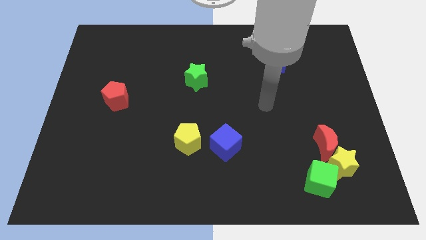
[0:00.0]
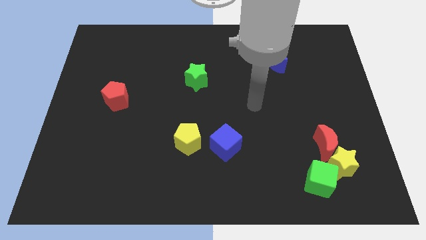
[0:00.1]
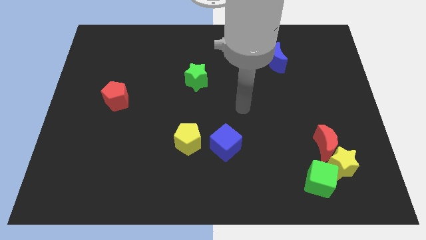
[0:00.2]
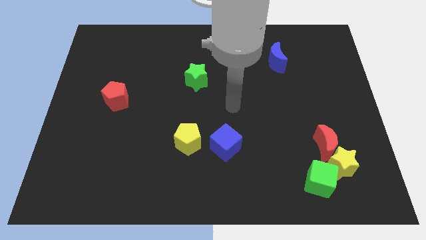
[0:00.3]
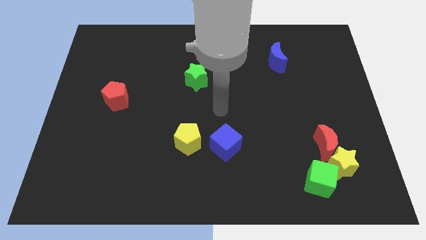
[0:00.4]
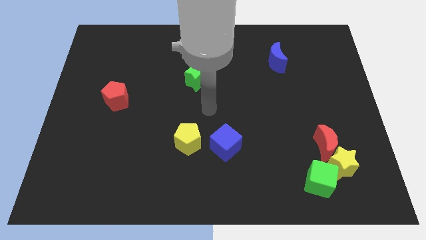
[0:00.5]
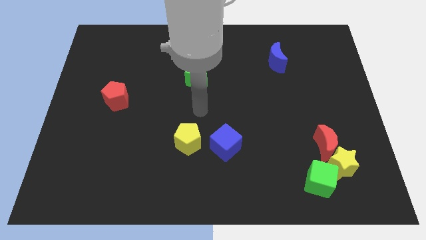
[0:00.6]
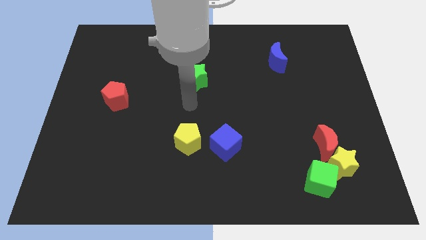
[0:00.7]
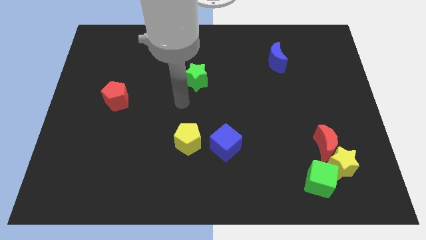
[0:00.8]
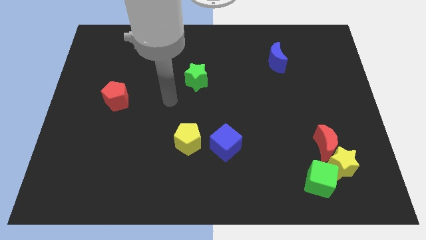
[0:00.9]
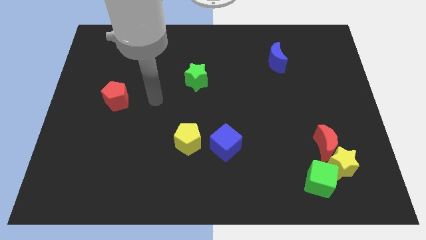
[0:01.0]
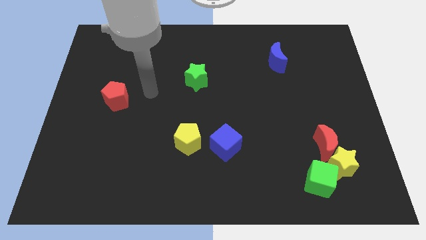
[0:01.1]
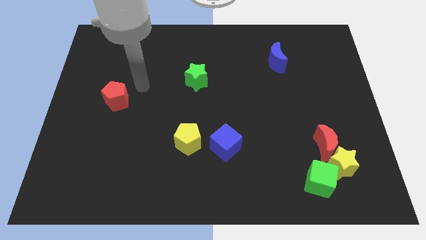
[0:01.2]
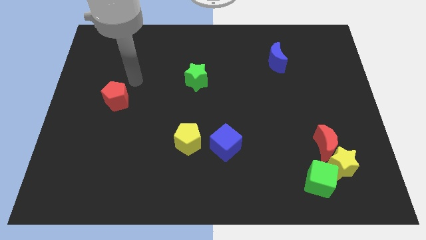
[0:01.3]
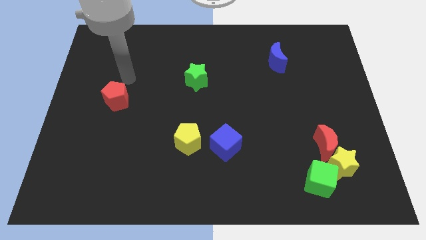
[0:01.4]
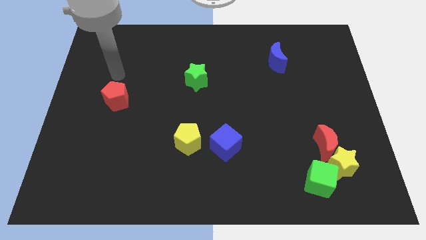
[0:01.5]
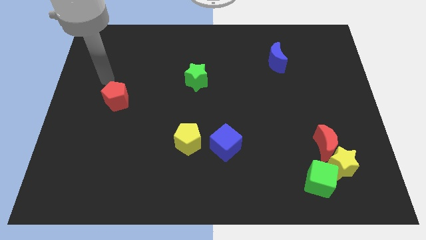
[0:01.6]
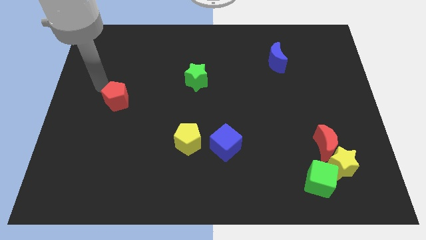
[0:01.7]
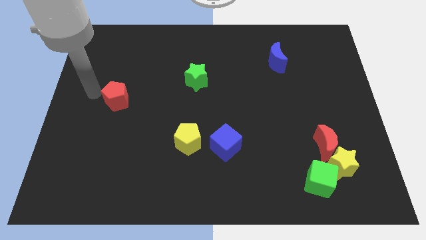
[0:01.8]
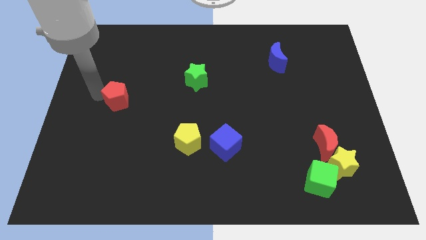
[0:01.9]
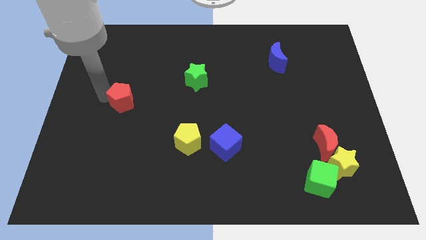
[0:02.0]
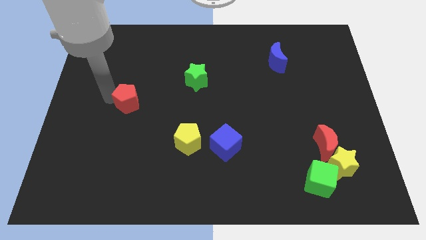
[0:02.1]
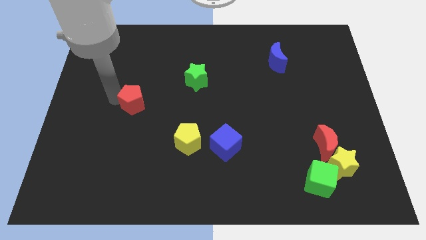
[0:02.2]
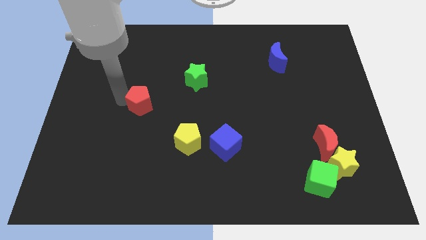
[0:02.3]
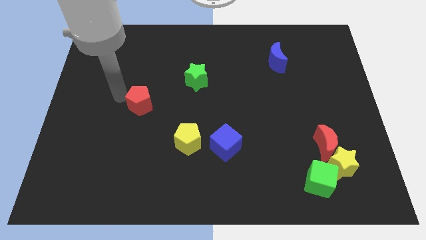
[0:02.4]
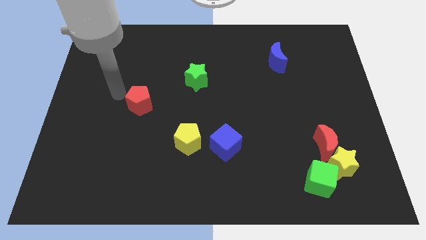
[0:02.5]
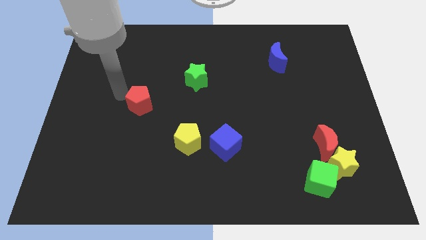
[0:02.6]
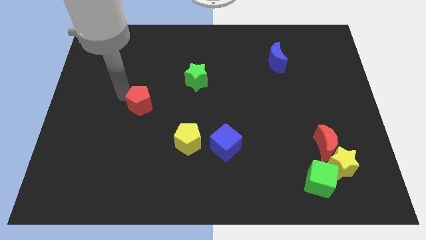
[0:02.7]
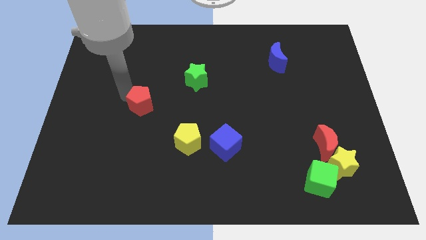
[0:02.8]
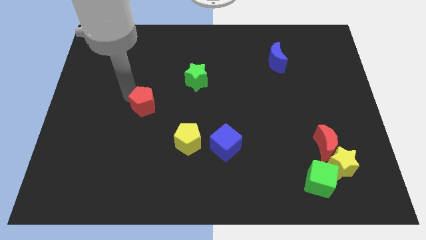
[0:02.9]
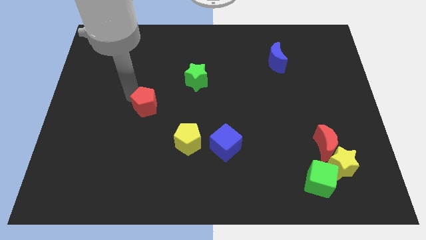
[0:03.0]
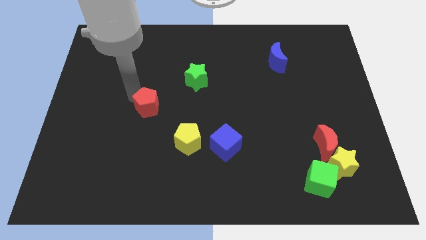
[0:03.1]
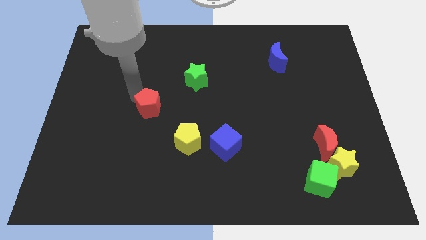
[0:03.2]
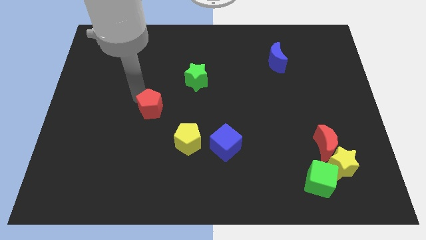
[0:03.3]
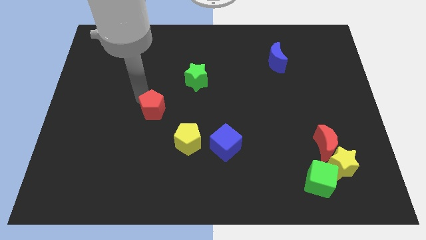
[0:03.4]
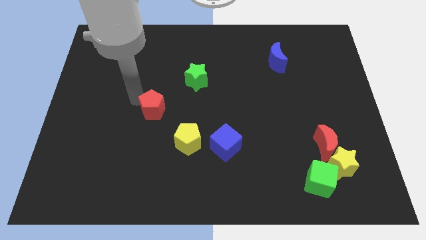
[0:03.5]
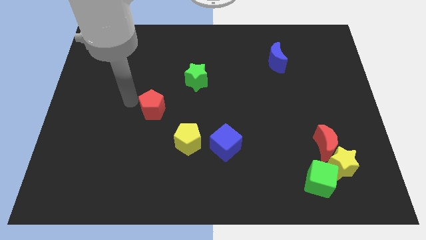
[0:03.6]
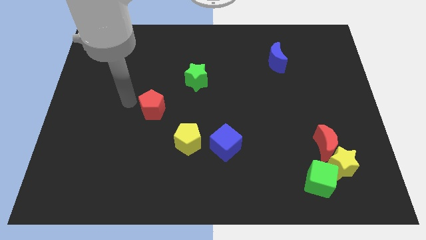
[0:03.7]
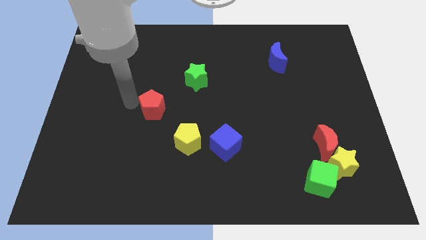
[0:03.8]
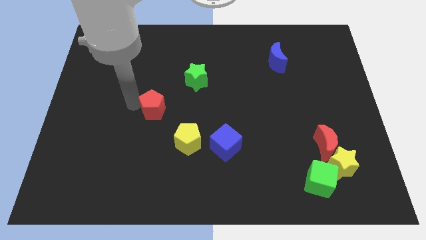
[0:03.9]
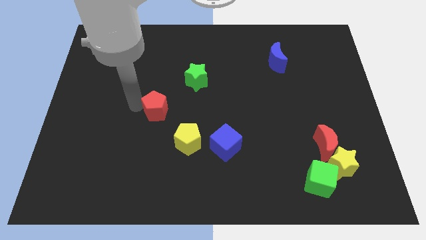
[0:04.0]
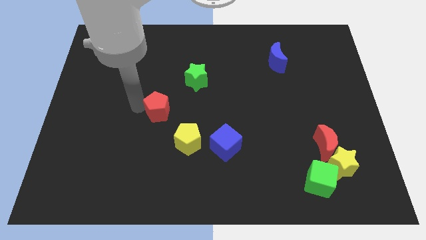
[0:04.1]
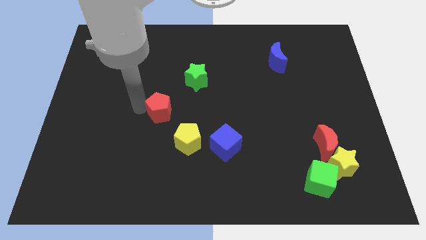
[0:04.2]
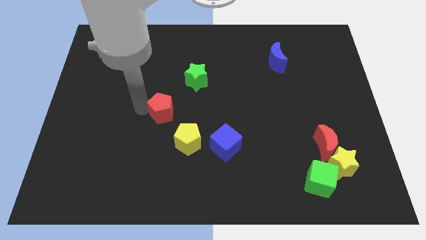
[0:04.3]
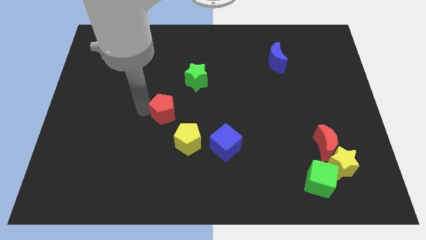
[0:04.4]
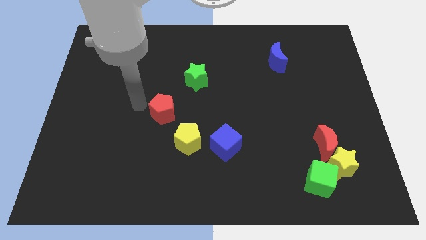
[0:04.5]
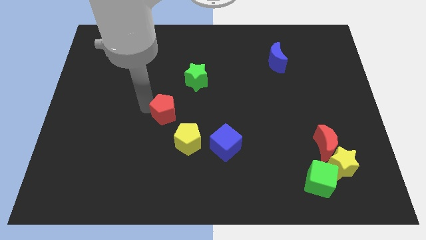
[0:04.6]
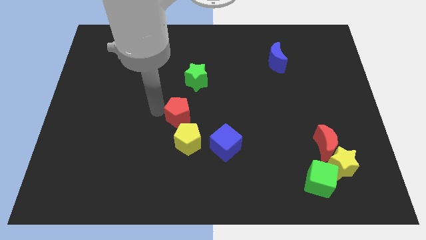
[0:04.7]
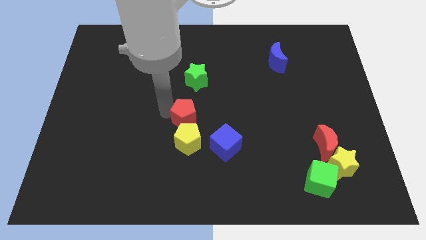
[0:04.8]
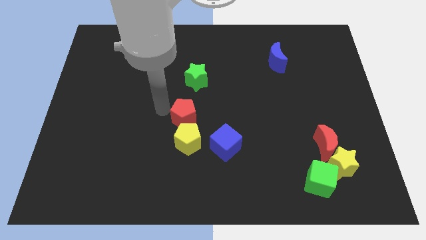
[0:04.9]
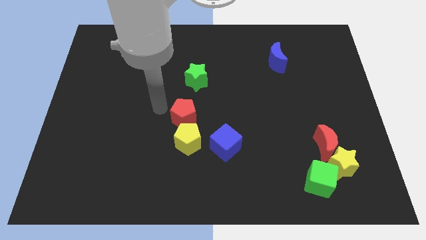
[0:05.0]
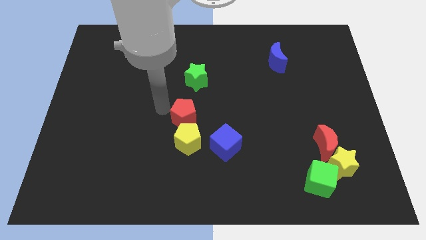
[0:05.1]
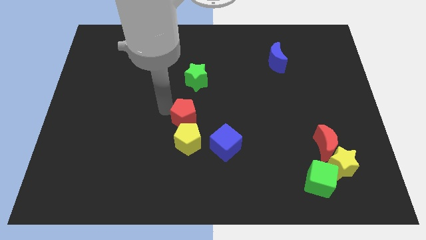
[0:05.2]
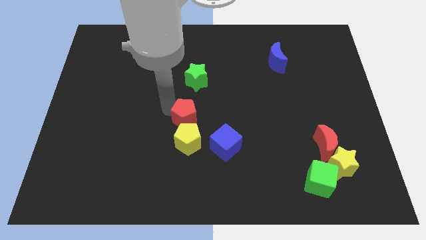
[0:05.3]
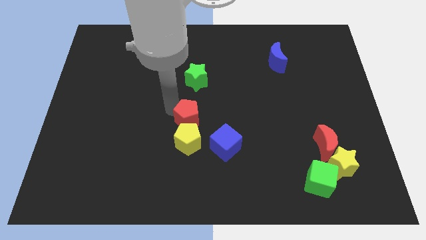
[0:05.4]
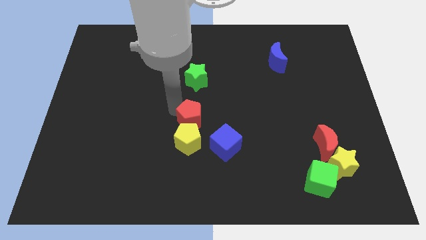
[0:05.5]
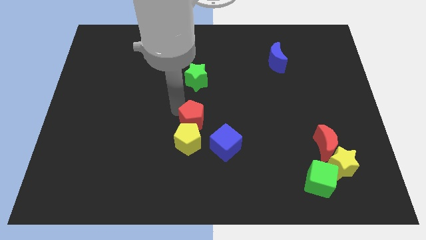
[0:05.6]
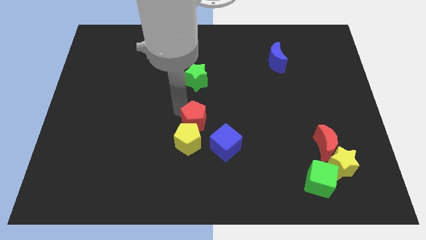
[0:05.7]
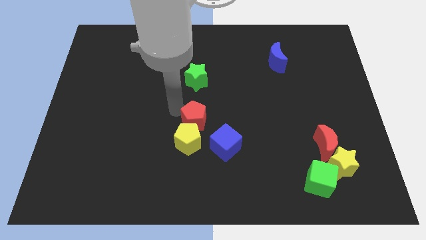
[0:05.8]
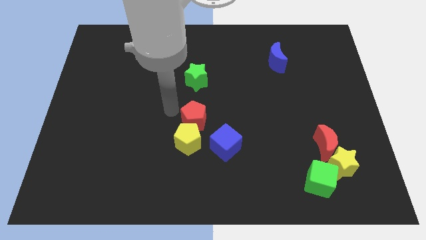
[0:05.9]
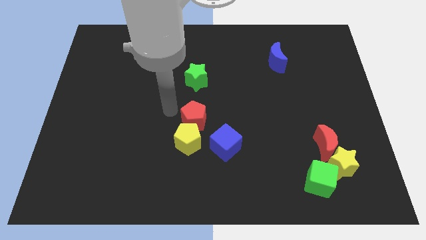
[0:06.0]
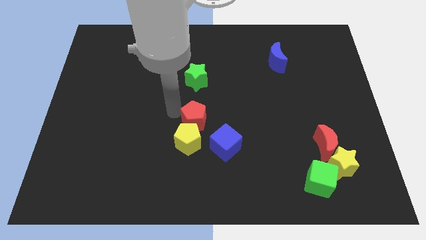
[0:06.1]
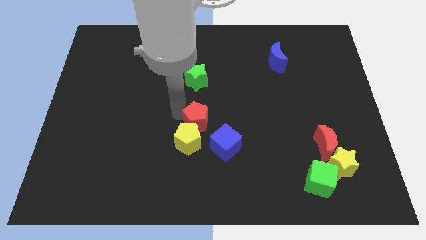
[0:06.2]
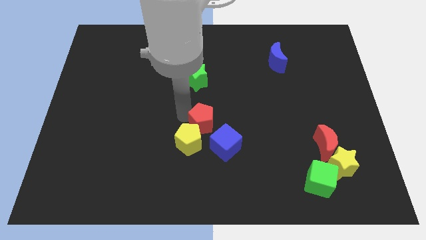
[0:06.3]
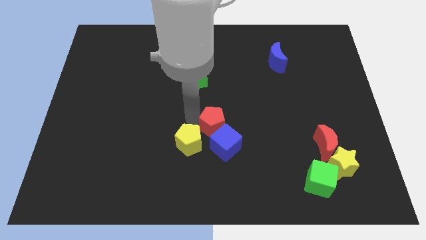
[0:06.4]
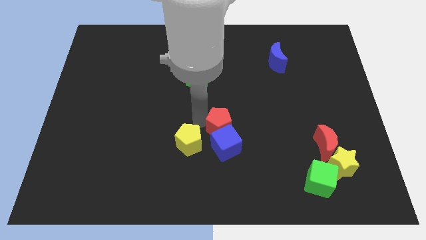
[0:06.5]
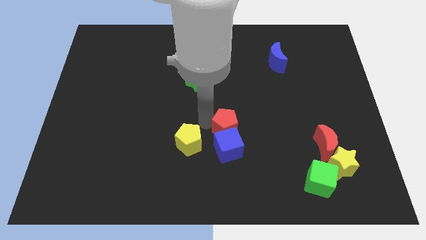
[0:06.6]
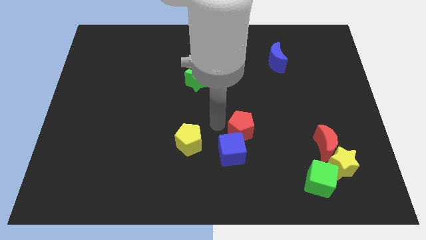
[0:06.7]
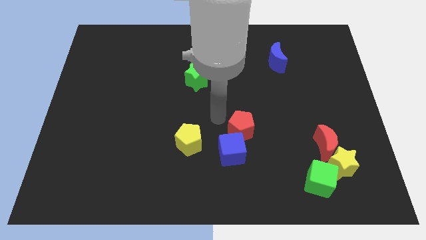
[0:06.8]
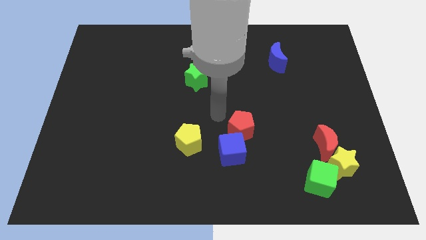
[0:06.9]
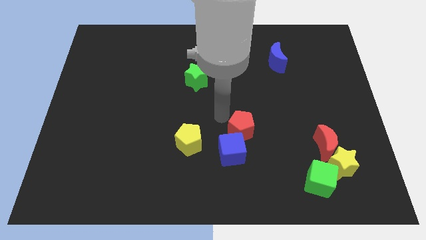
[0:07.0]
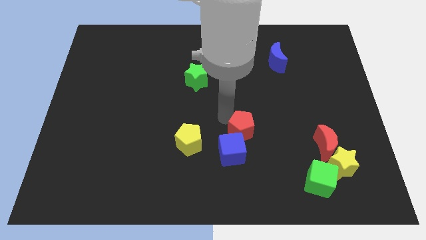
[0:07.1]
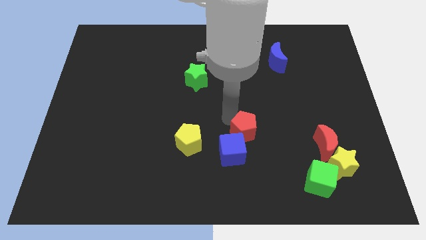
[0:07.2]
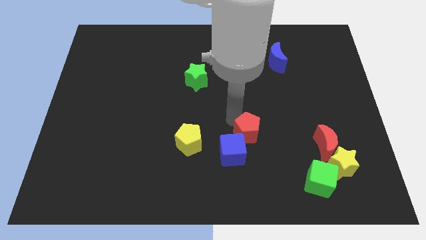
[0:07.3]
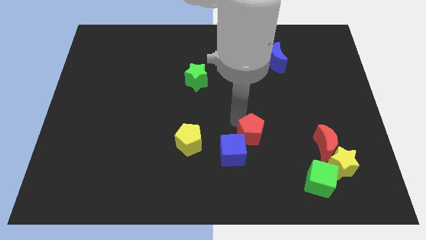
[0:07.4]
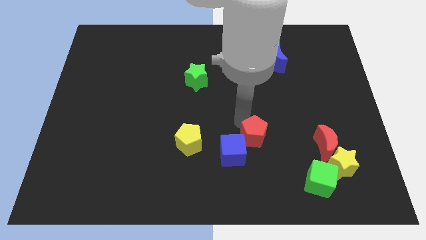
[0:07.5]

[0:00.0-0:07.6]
put the red pentagon right of the blue cube
